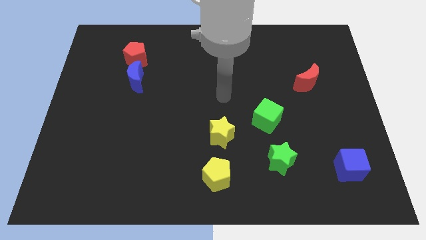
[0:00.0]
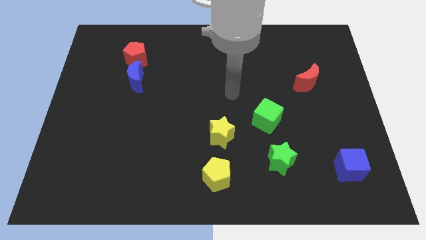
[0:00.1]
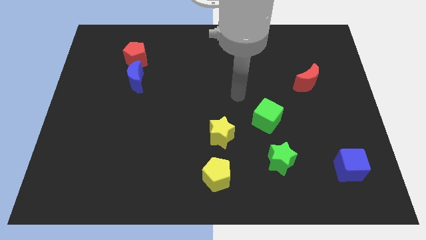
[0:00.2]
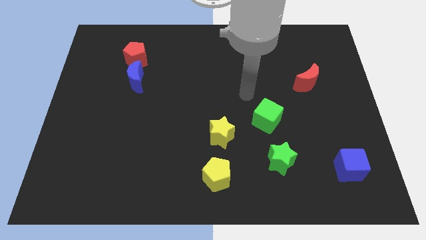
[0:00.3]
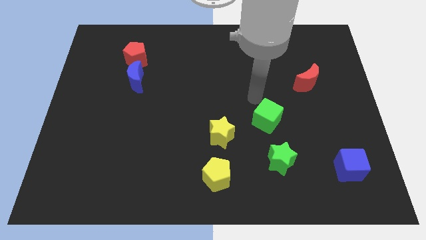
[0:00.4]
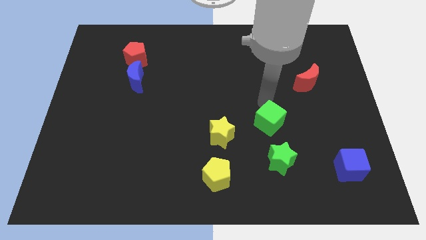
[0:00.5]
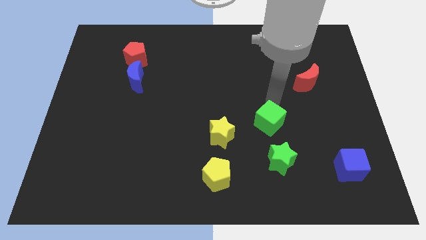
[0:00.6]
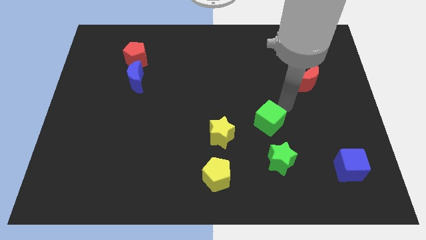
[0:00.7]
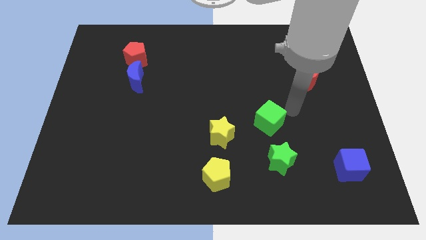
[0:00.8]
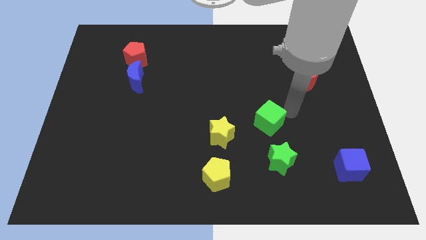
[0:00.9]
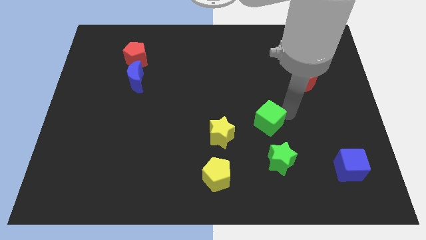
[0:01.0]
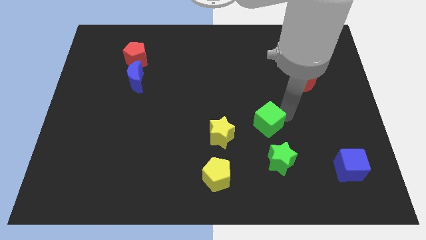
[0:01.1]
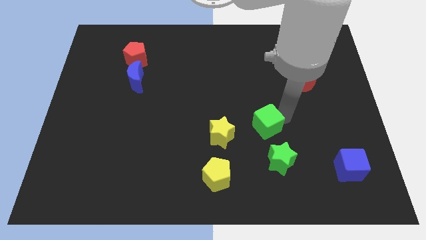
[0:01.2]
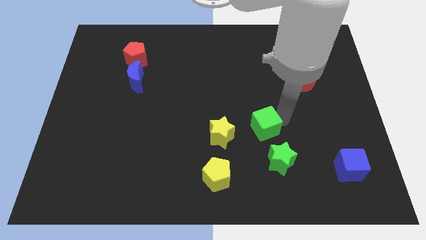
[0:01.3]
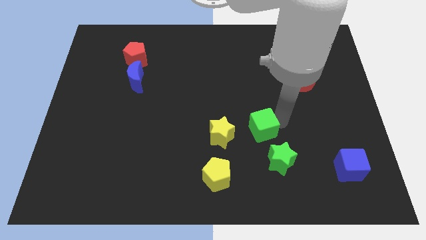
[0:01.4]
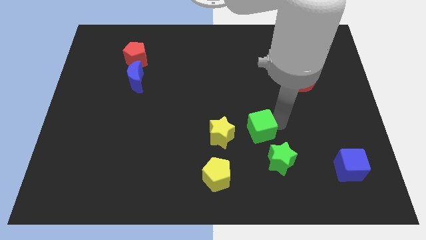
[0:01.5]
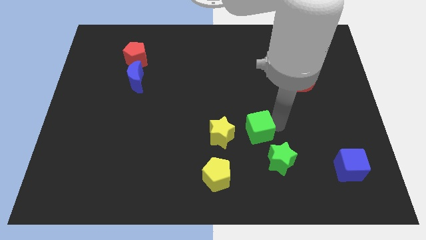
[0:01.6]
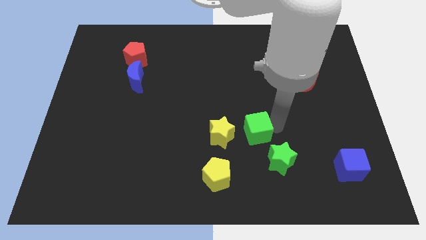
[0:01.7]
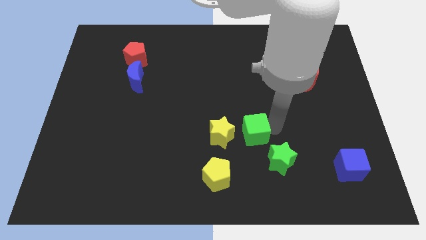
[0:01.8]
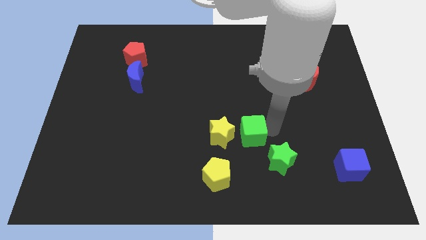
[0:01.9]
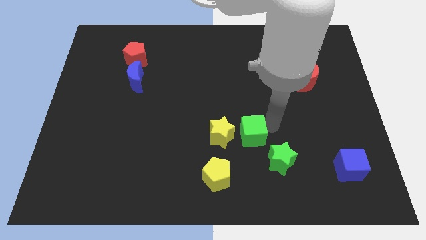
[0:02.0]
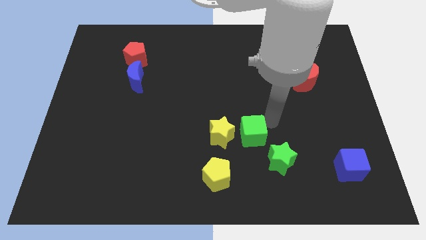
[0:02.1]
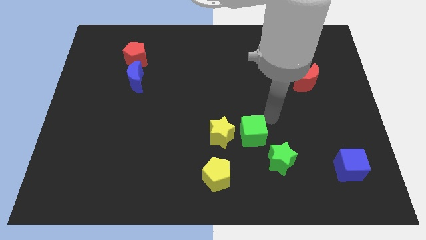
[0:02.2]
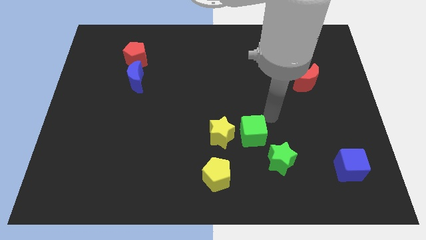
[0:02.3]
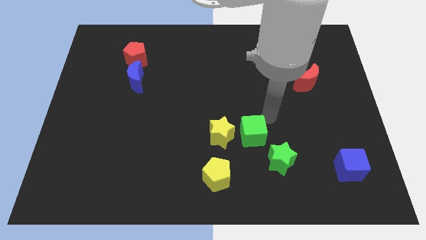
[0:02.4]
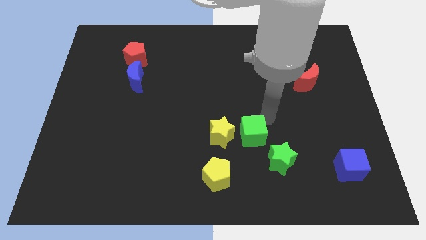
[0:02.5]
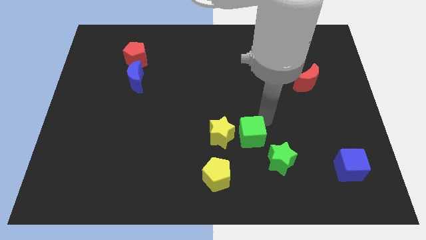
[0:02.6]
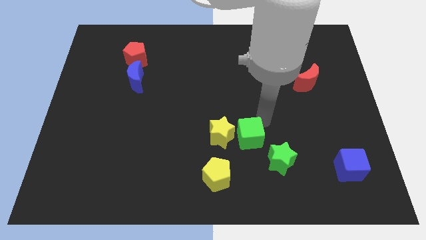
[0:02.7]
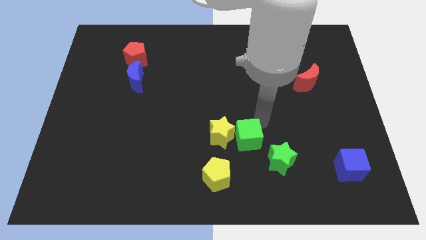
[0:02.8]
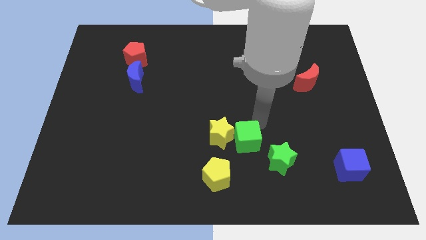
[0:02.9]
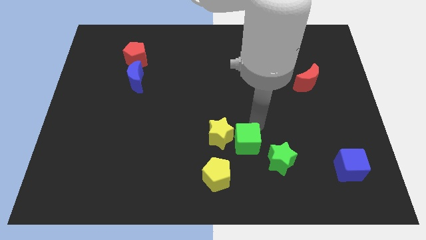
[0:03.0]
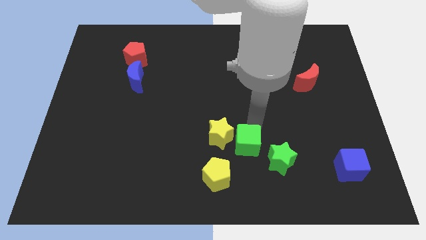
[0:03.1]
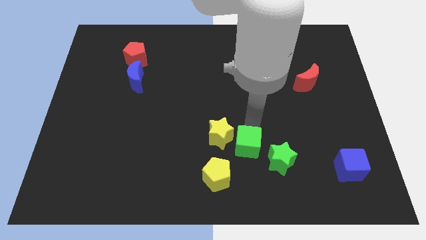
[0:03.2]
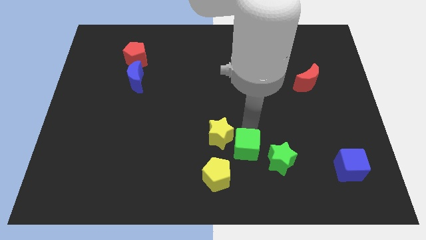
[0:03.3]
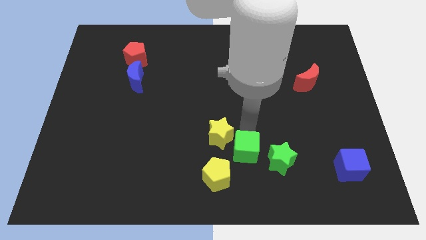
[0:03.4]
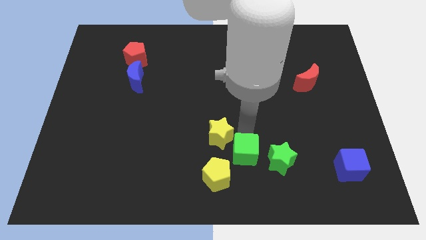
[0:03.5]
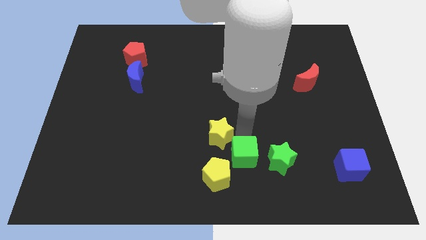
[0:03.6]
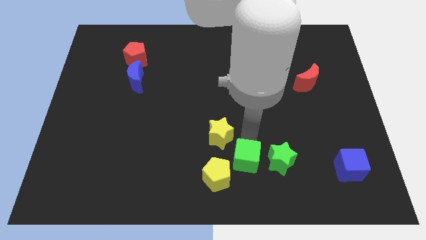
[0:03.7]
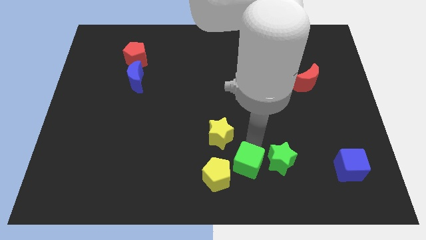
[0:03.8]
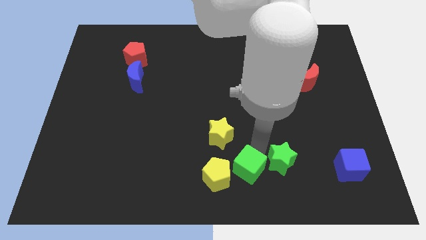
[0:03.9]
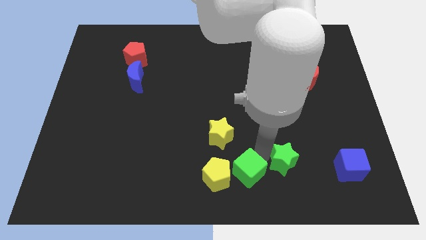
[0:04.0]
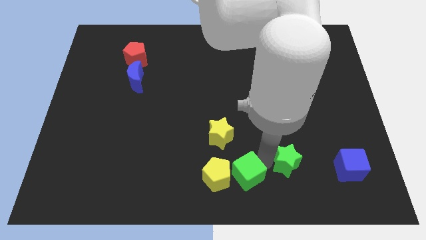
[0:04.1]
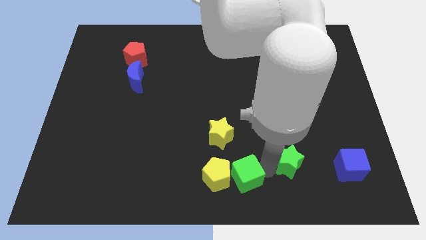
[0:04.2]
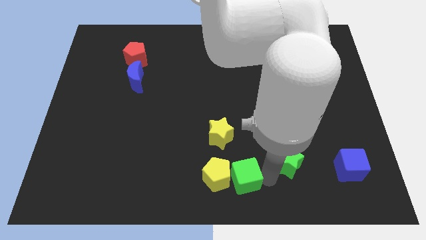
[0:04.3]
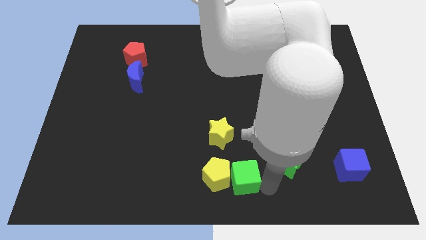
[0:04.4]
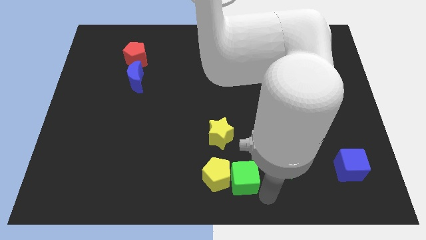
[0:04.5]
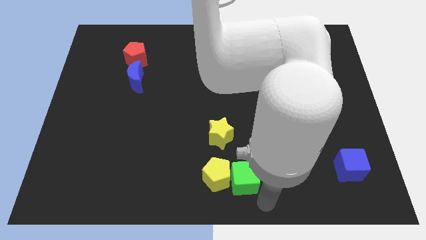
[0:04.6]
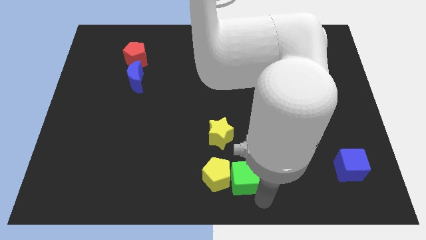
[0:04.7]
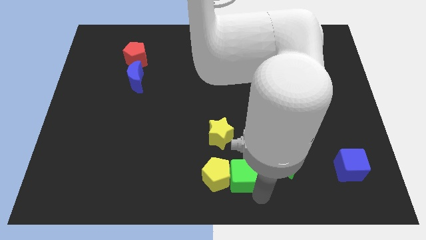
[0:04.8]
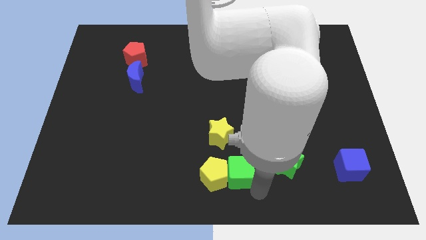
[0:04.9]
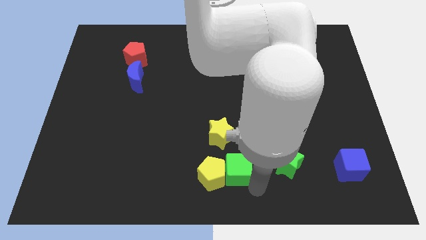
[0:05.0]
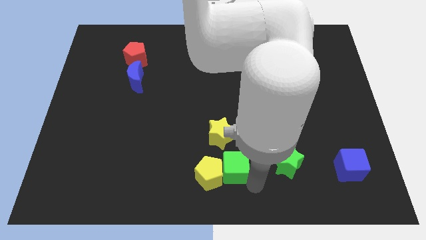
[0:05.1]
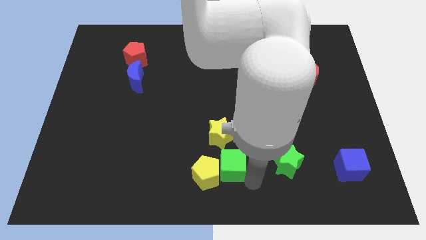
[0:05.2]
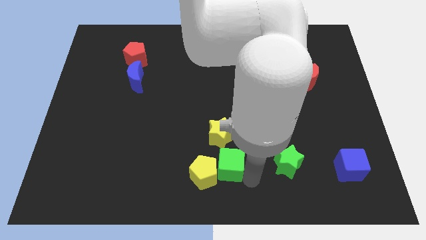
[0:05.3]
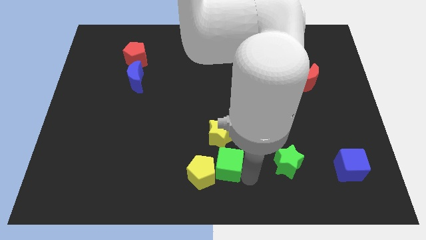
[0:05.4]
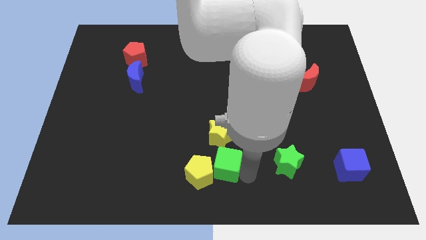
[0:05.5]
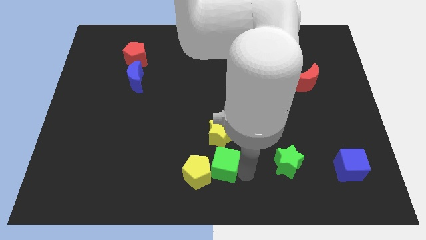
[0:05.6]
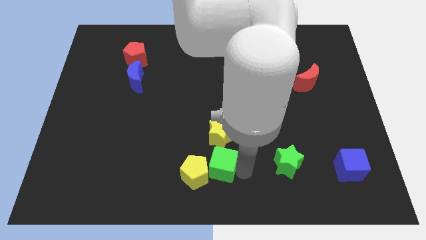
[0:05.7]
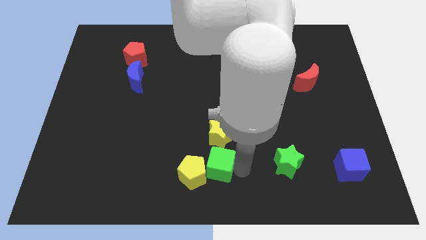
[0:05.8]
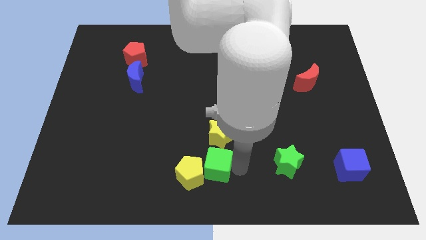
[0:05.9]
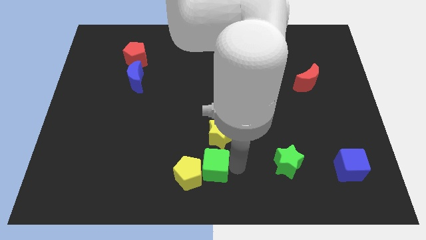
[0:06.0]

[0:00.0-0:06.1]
move the green cube diagonally down and to the left of the yellow star

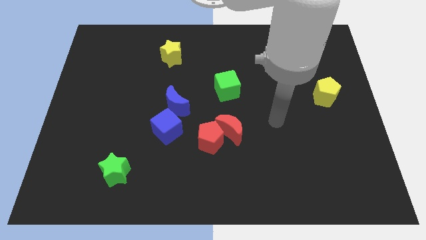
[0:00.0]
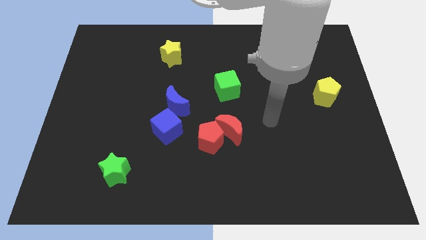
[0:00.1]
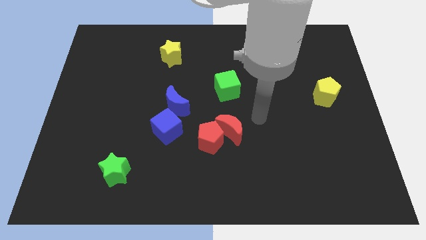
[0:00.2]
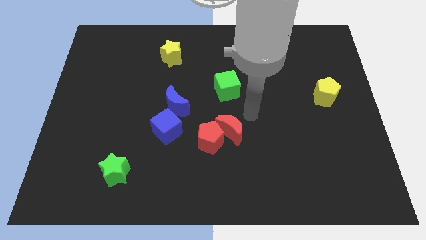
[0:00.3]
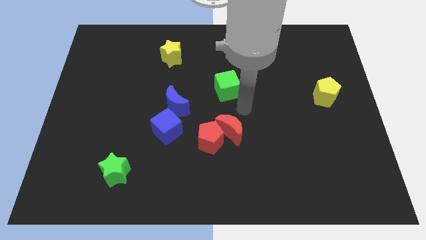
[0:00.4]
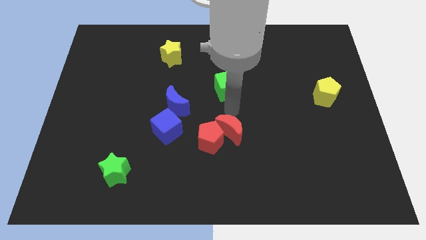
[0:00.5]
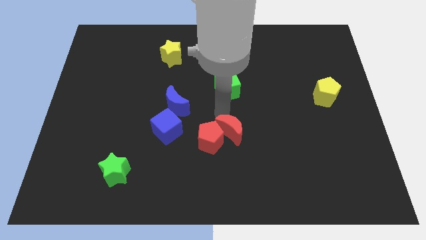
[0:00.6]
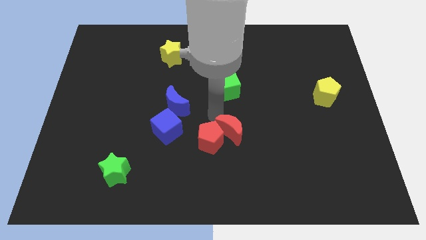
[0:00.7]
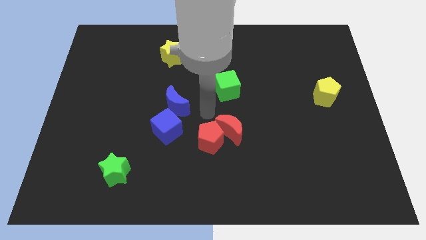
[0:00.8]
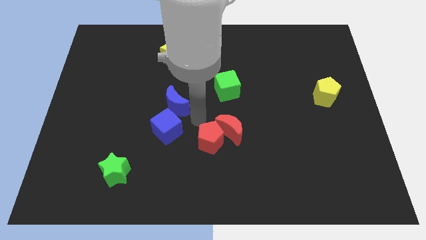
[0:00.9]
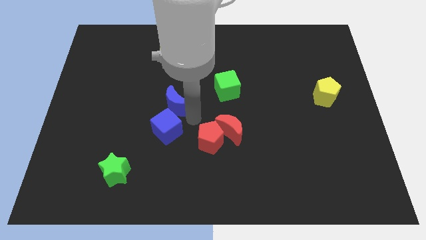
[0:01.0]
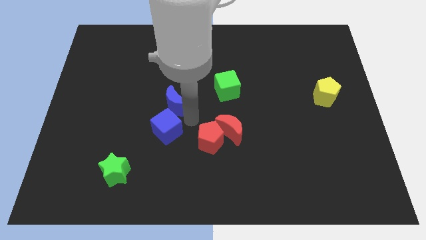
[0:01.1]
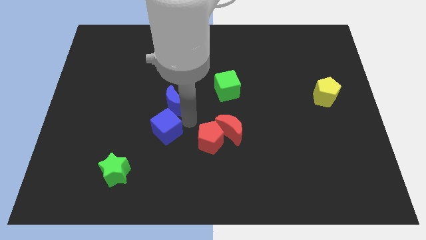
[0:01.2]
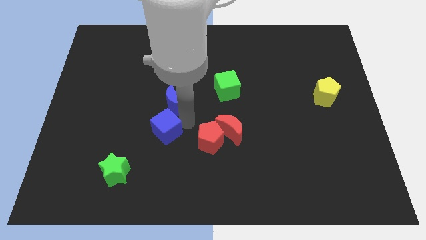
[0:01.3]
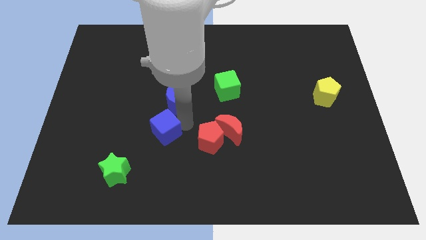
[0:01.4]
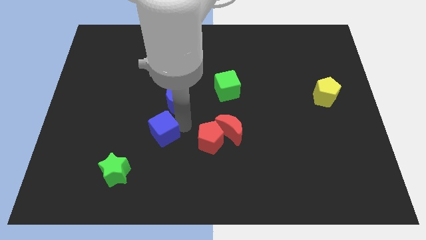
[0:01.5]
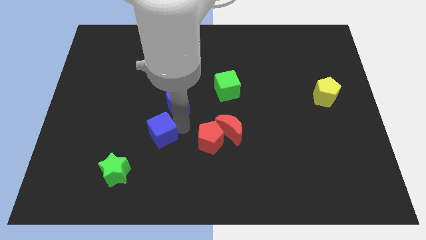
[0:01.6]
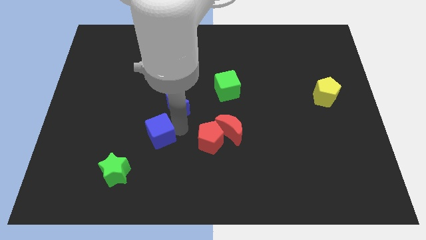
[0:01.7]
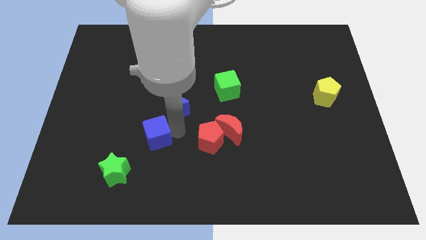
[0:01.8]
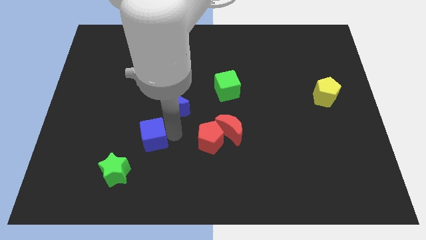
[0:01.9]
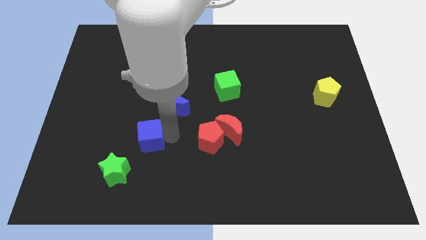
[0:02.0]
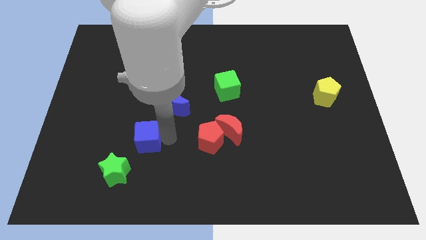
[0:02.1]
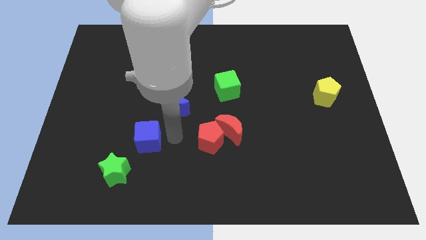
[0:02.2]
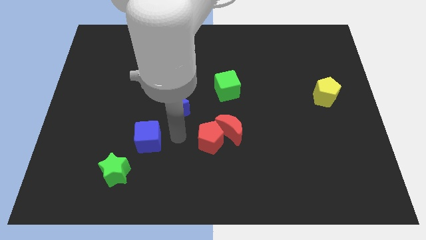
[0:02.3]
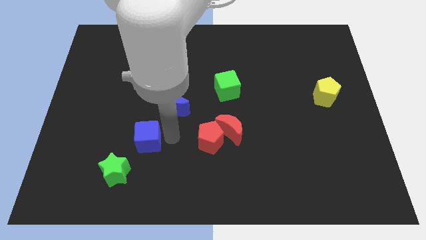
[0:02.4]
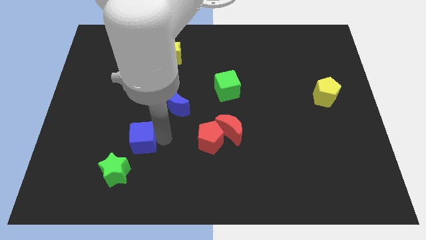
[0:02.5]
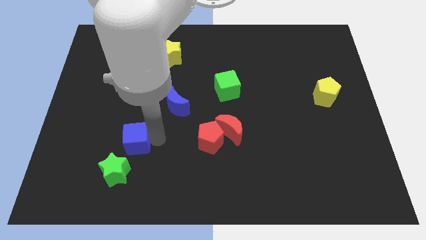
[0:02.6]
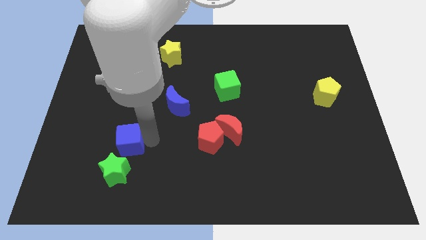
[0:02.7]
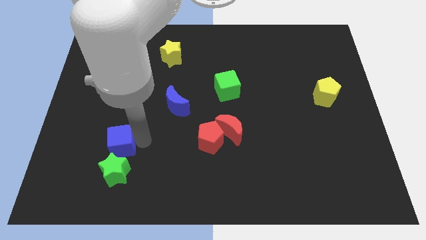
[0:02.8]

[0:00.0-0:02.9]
put the blue cube to the top left of the green star
